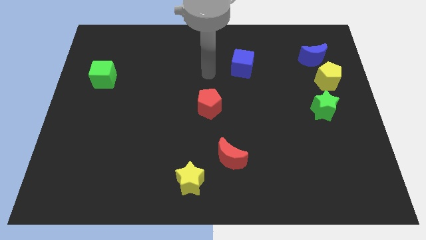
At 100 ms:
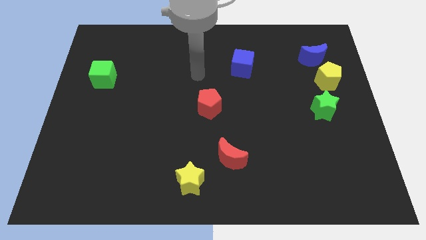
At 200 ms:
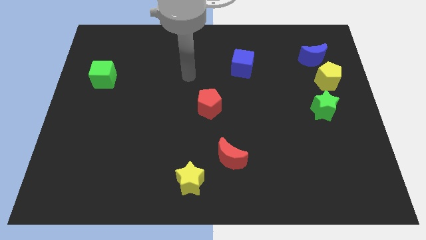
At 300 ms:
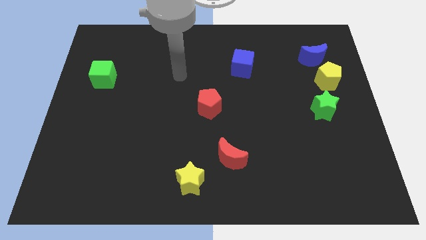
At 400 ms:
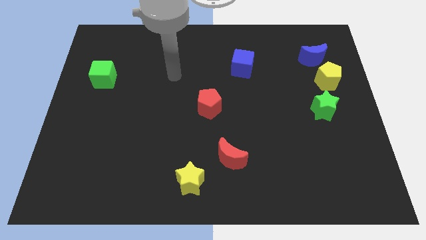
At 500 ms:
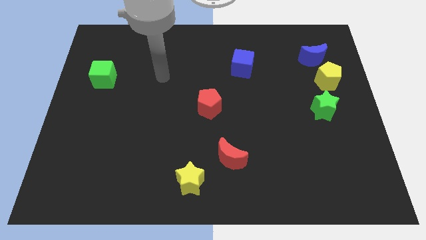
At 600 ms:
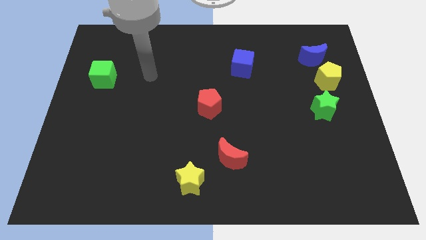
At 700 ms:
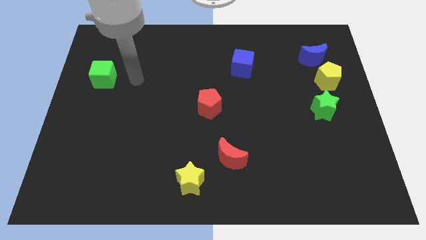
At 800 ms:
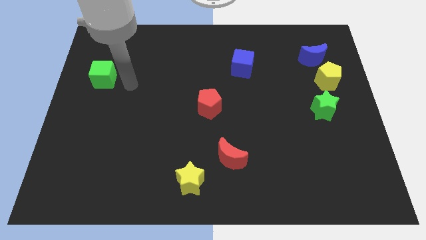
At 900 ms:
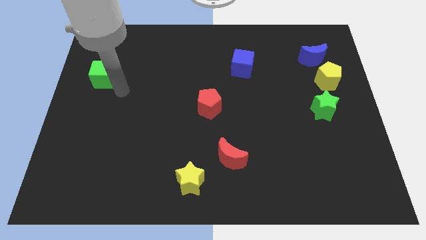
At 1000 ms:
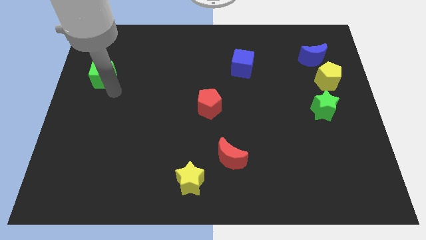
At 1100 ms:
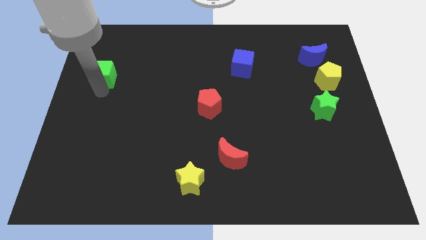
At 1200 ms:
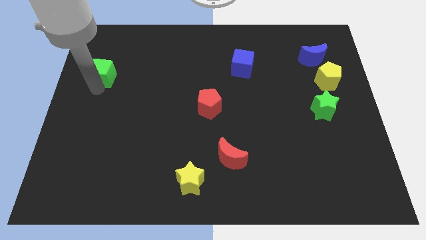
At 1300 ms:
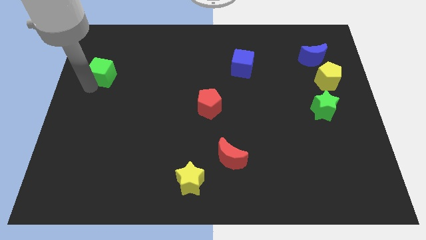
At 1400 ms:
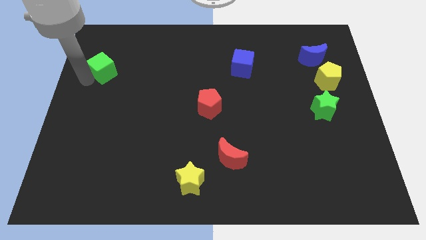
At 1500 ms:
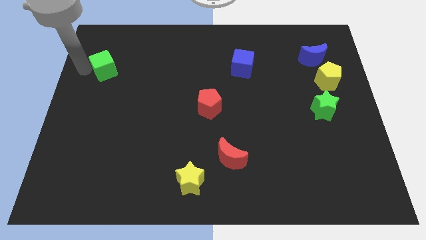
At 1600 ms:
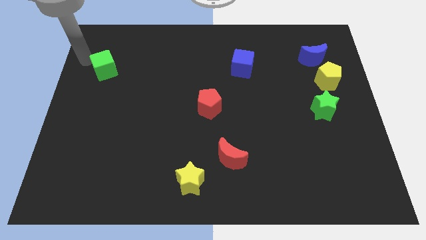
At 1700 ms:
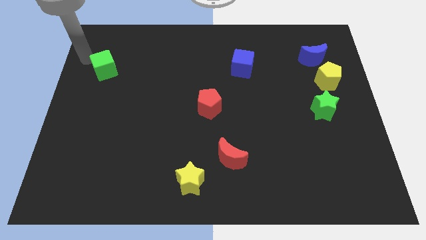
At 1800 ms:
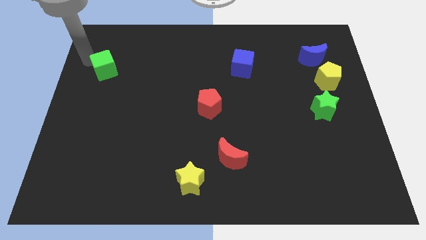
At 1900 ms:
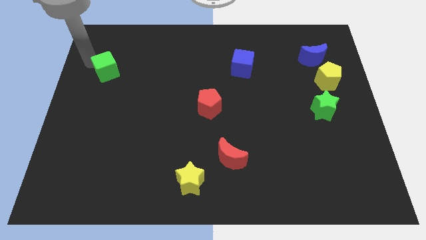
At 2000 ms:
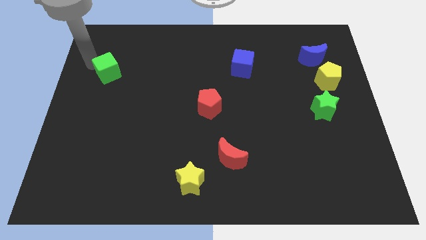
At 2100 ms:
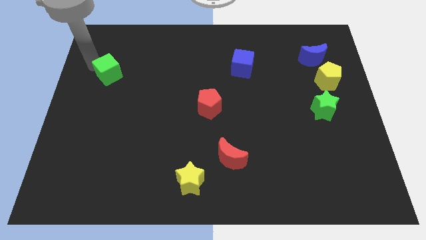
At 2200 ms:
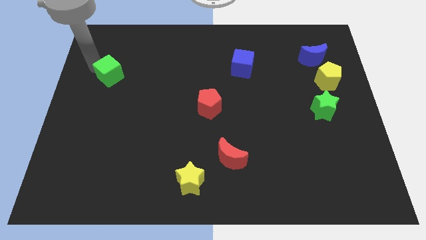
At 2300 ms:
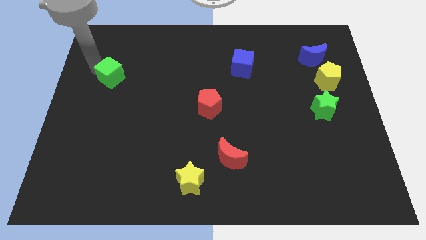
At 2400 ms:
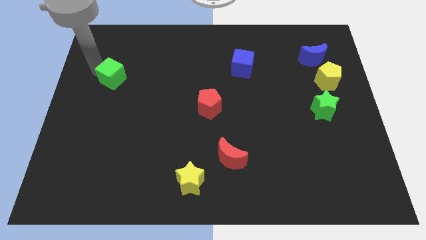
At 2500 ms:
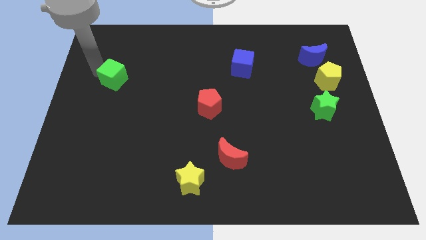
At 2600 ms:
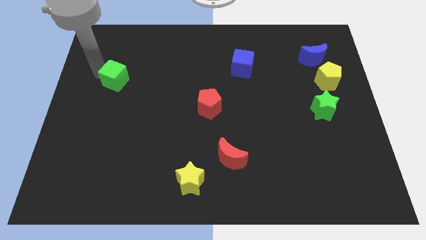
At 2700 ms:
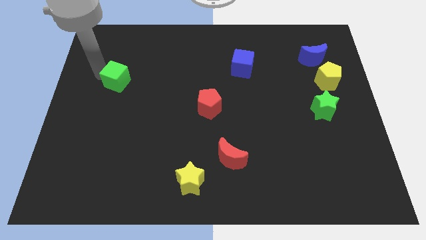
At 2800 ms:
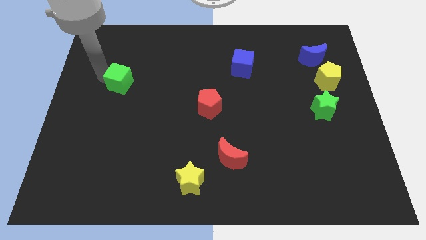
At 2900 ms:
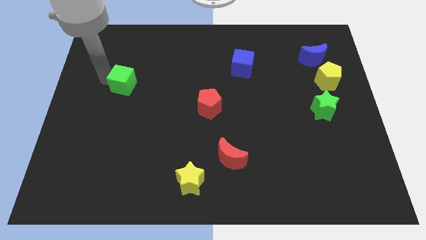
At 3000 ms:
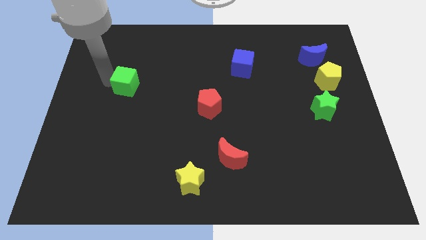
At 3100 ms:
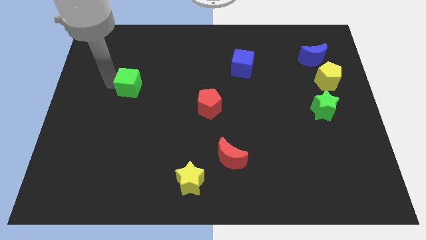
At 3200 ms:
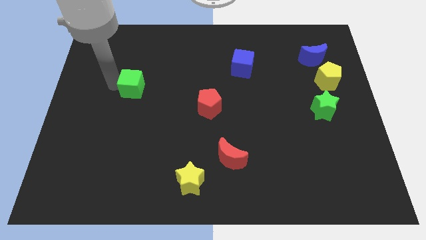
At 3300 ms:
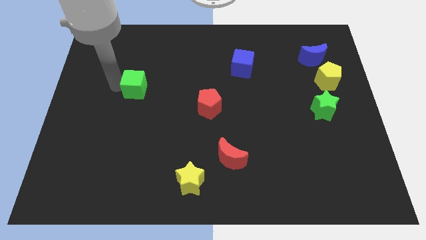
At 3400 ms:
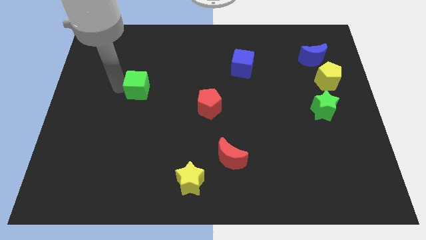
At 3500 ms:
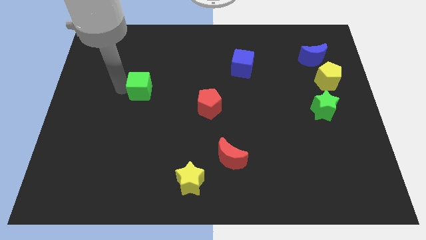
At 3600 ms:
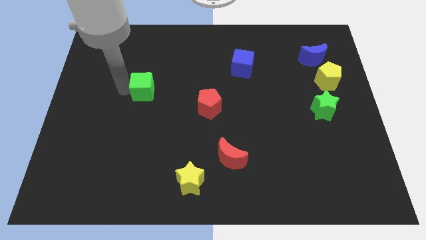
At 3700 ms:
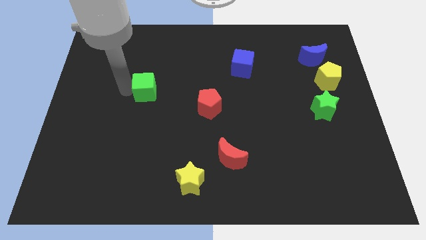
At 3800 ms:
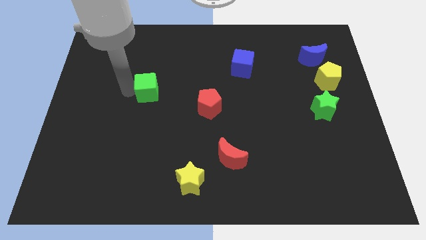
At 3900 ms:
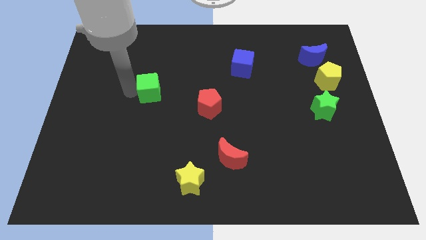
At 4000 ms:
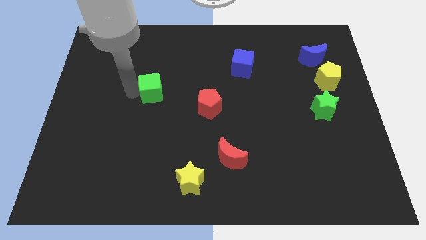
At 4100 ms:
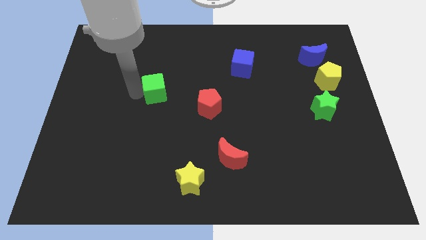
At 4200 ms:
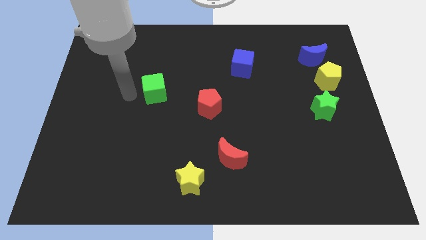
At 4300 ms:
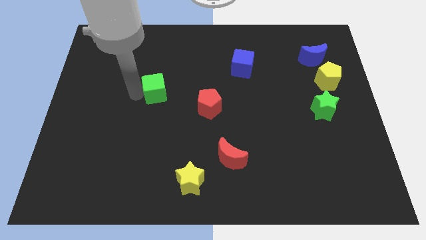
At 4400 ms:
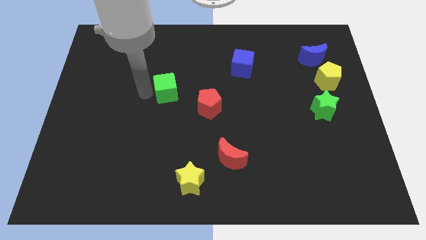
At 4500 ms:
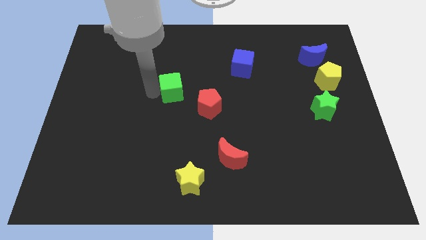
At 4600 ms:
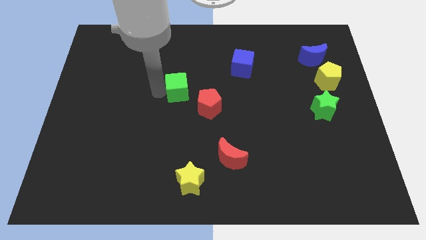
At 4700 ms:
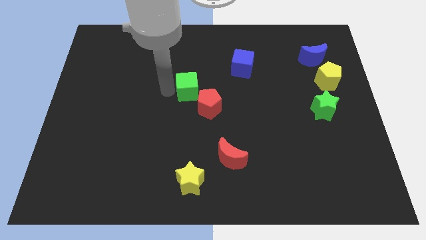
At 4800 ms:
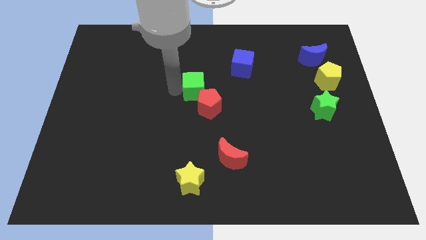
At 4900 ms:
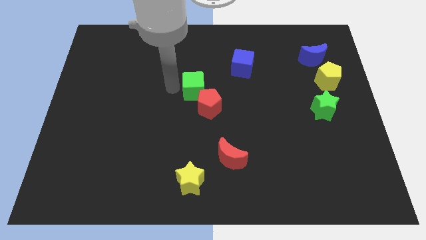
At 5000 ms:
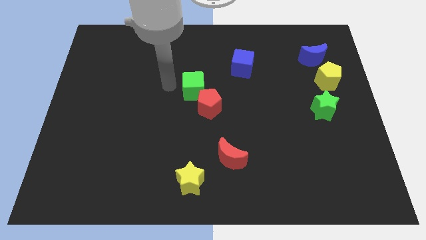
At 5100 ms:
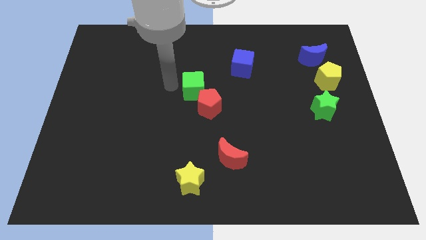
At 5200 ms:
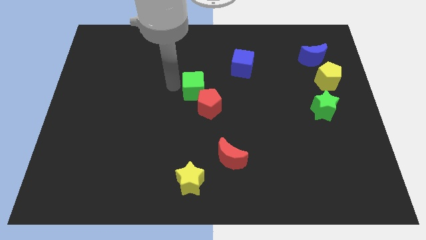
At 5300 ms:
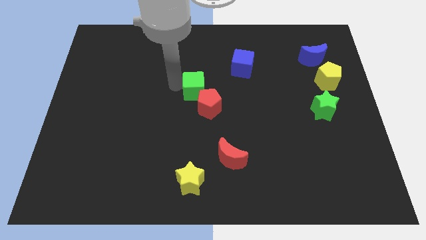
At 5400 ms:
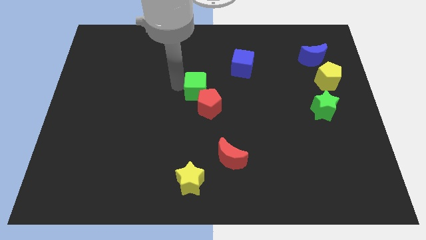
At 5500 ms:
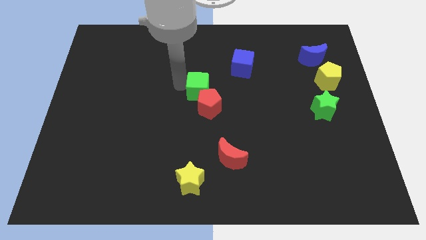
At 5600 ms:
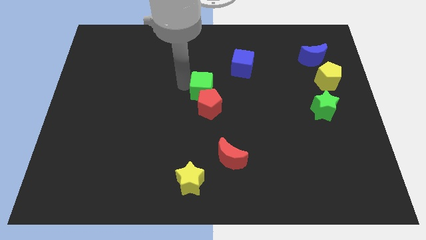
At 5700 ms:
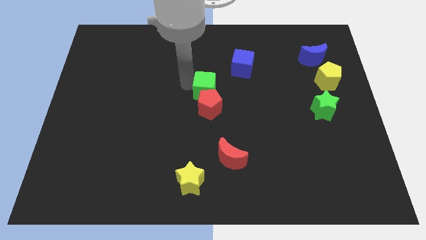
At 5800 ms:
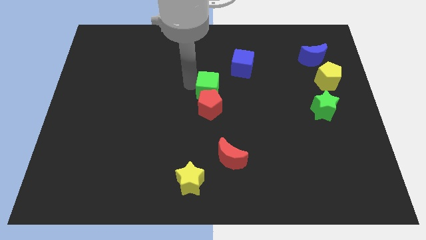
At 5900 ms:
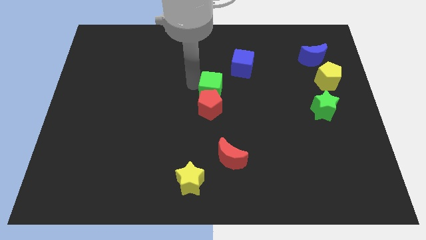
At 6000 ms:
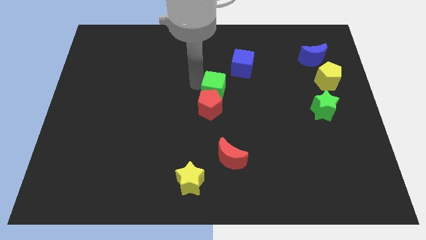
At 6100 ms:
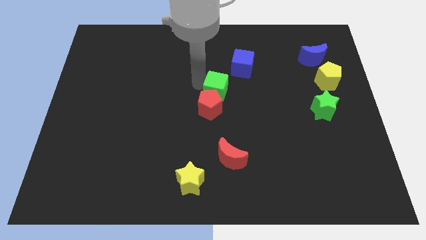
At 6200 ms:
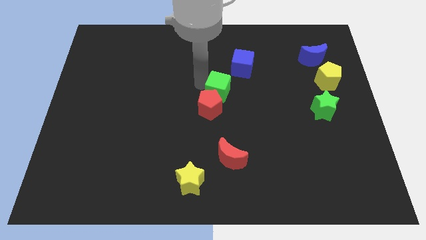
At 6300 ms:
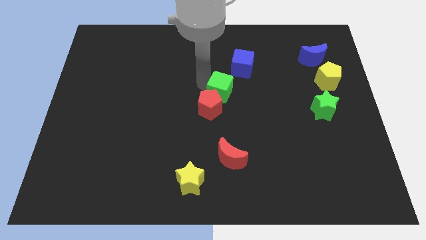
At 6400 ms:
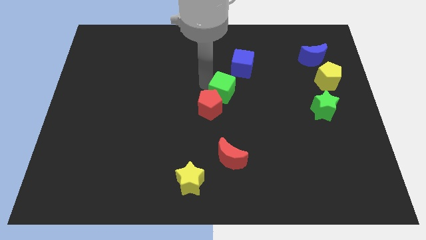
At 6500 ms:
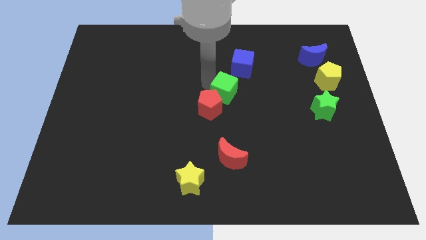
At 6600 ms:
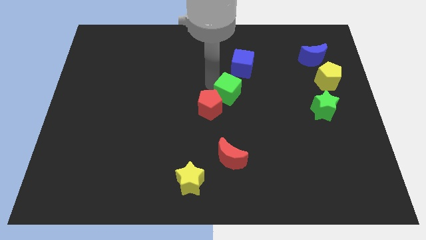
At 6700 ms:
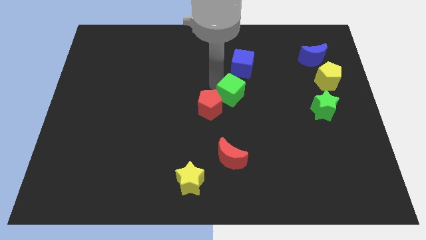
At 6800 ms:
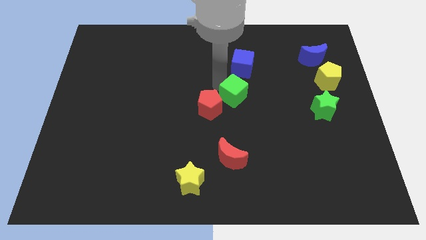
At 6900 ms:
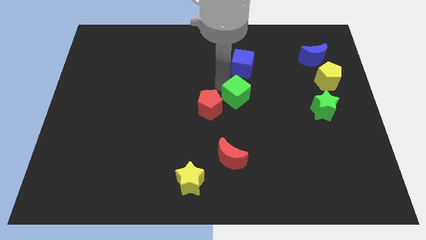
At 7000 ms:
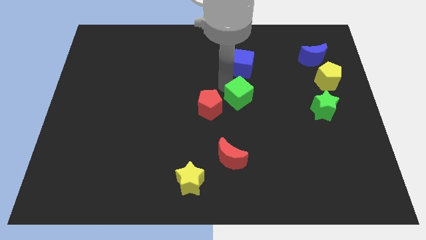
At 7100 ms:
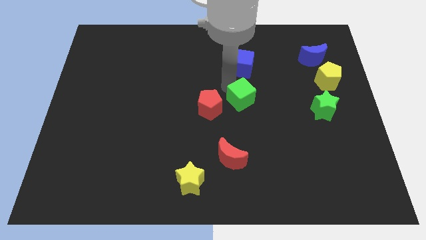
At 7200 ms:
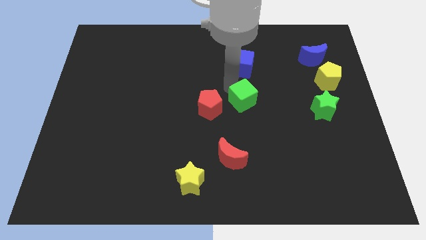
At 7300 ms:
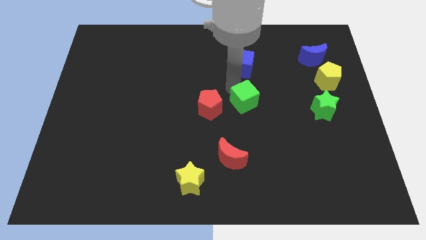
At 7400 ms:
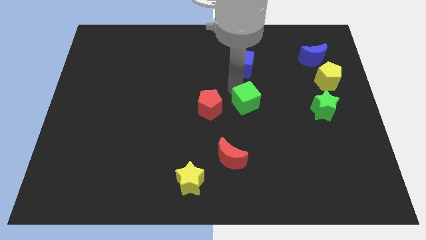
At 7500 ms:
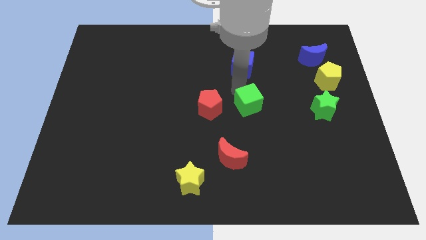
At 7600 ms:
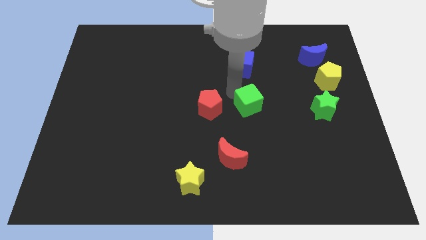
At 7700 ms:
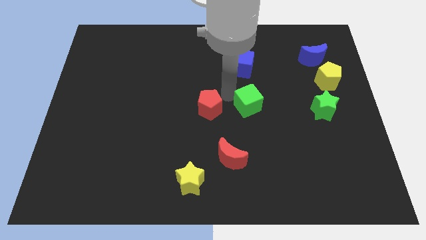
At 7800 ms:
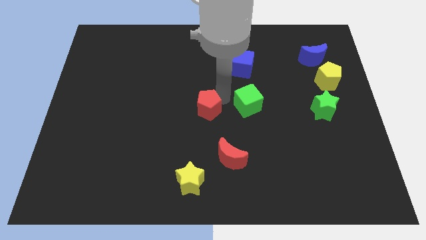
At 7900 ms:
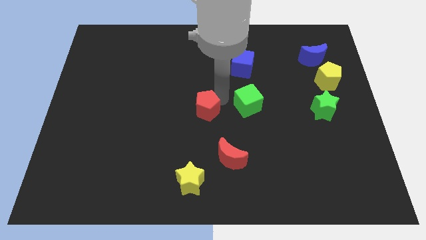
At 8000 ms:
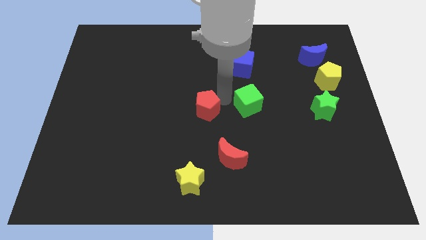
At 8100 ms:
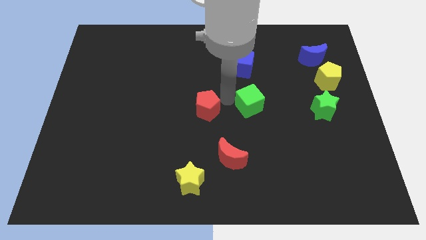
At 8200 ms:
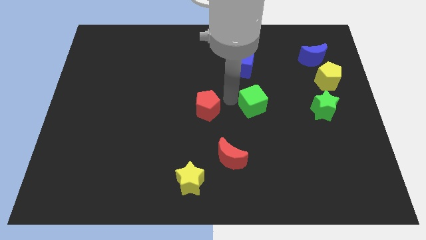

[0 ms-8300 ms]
push the green cube to the left of the green star
